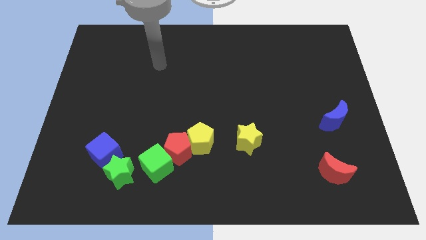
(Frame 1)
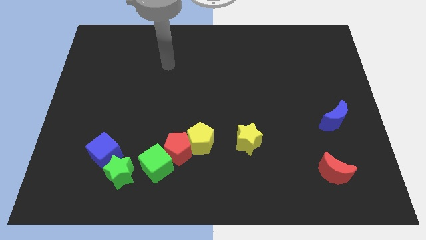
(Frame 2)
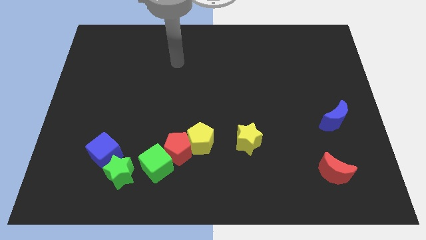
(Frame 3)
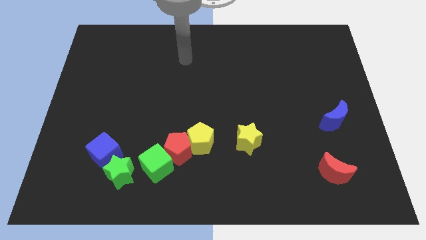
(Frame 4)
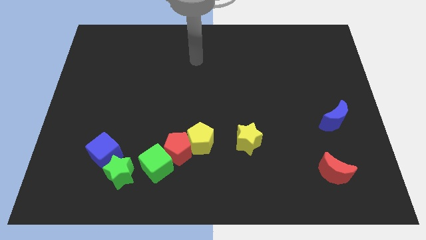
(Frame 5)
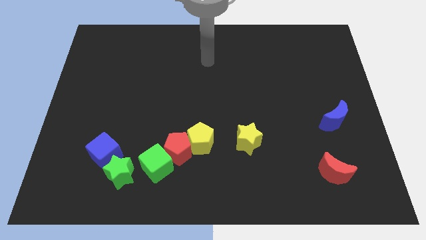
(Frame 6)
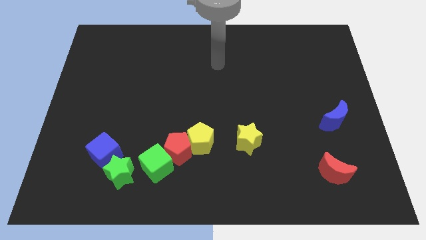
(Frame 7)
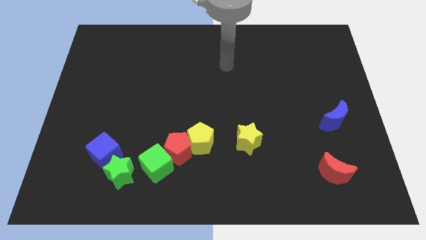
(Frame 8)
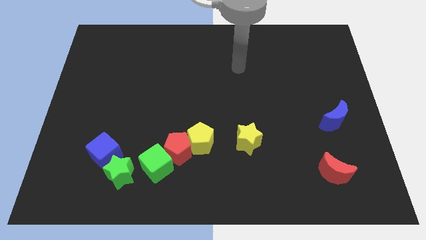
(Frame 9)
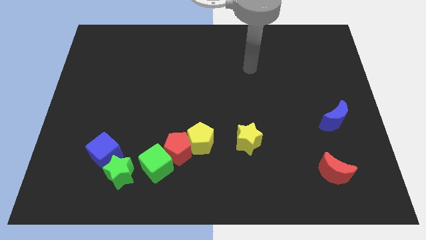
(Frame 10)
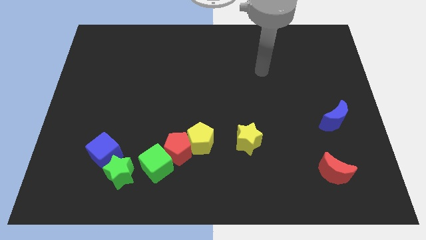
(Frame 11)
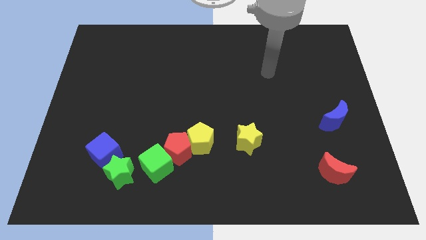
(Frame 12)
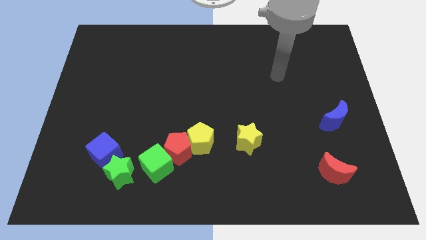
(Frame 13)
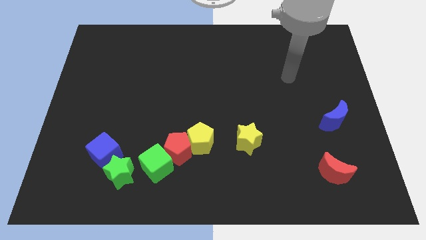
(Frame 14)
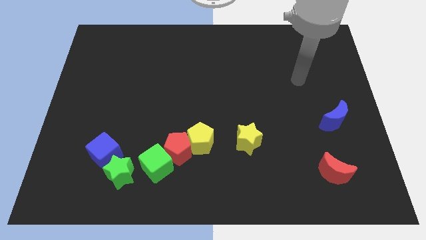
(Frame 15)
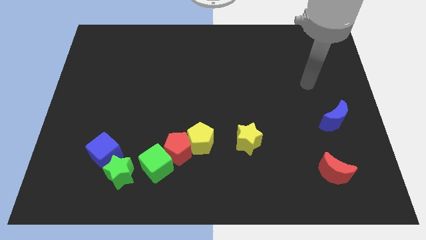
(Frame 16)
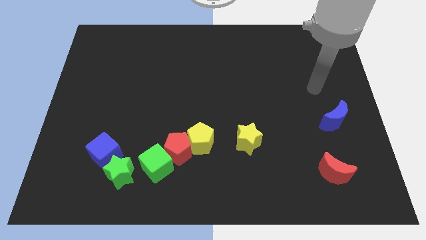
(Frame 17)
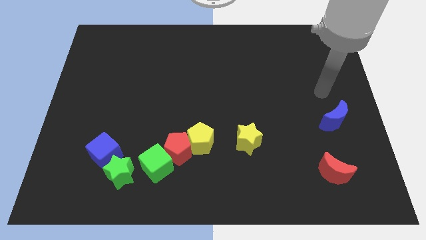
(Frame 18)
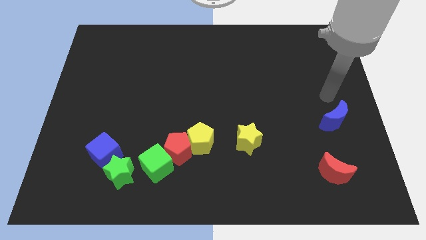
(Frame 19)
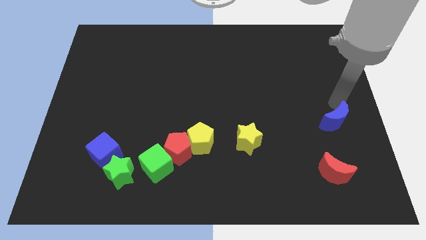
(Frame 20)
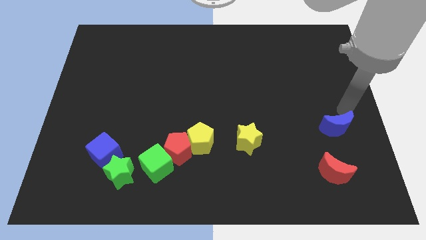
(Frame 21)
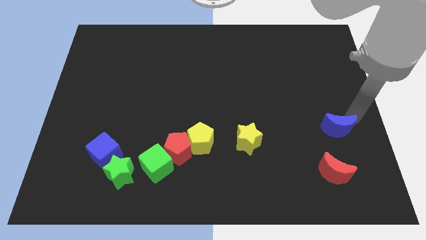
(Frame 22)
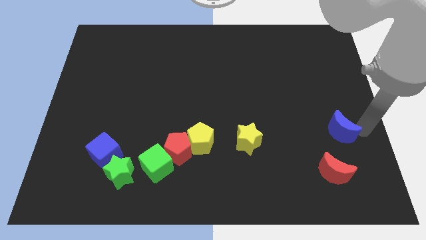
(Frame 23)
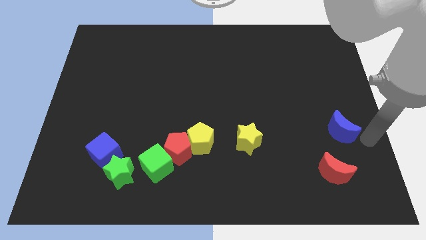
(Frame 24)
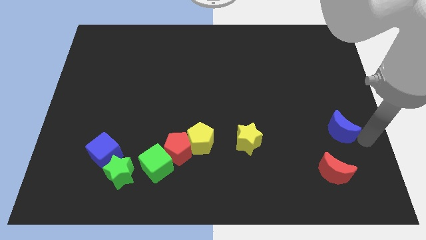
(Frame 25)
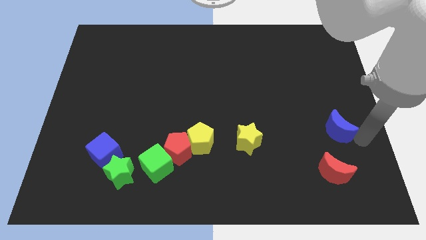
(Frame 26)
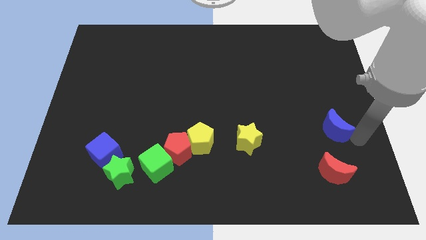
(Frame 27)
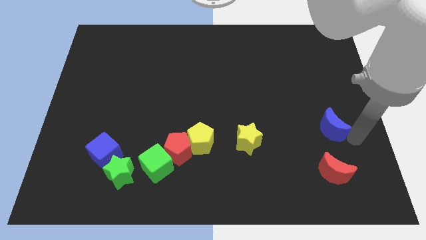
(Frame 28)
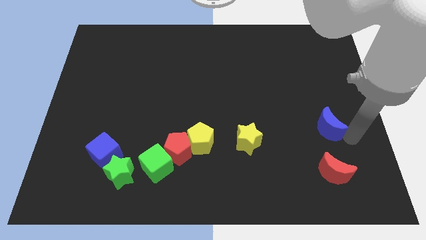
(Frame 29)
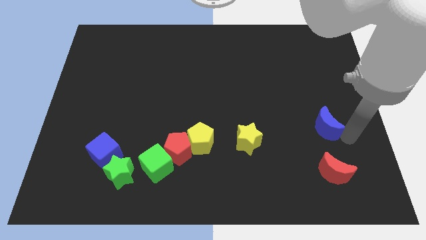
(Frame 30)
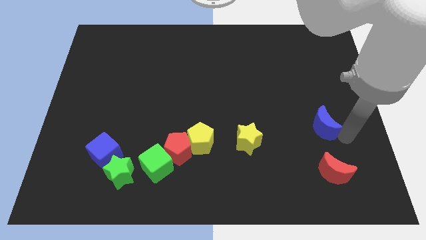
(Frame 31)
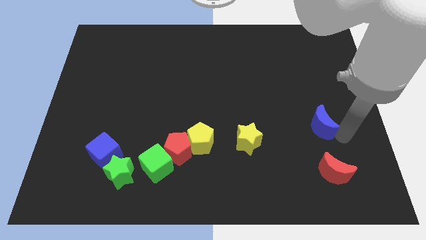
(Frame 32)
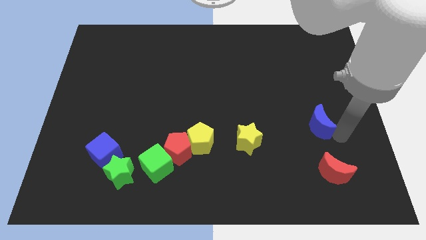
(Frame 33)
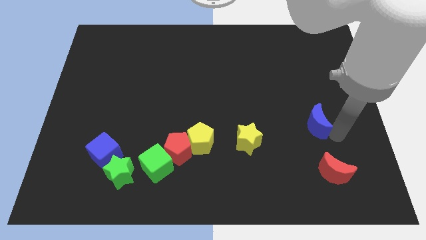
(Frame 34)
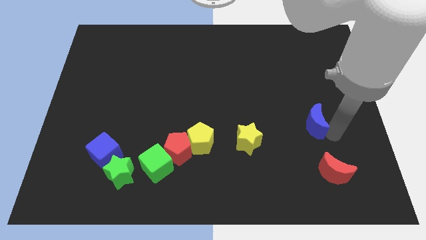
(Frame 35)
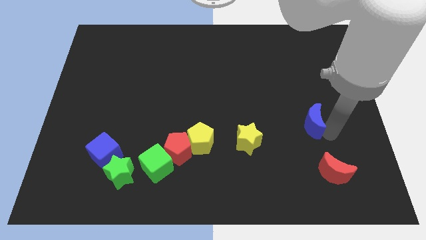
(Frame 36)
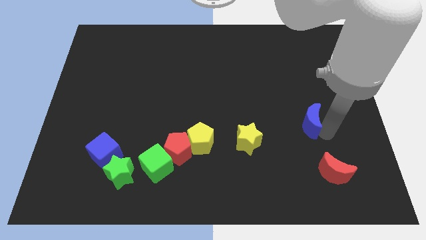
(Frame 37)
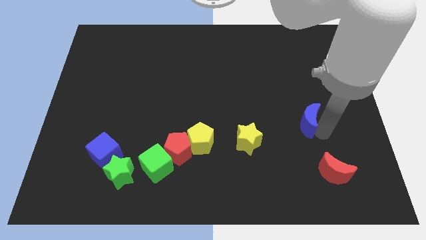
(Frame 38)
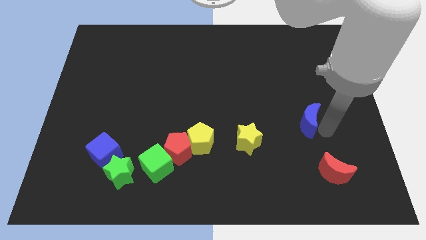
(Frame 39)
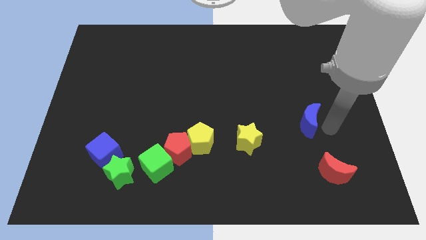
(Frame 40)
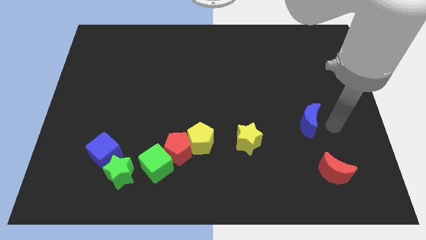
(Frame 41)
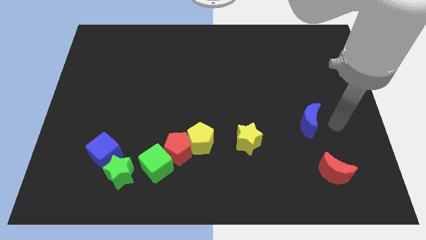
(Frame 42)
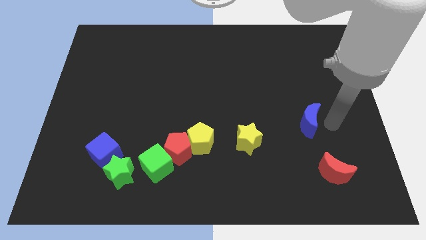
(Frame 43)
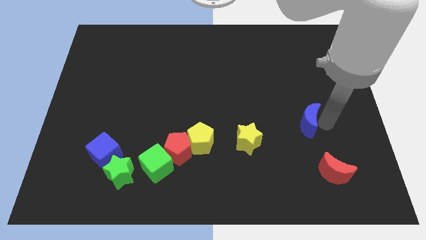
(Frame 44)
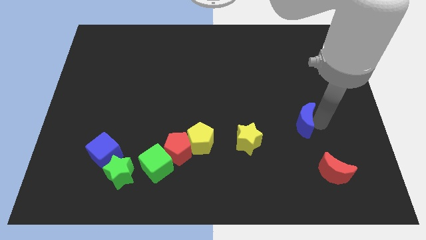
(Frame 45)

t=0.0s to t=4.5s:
move the blue moon a bit to the left

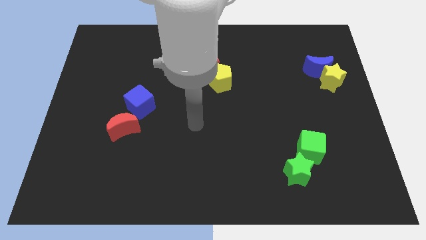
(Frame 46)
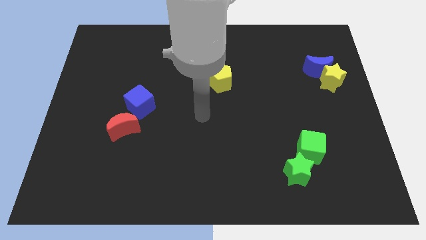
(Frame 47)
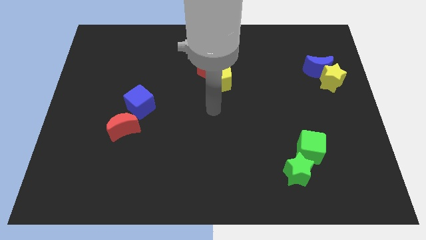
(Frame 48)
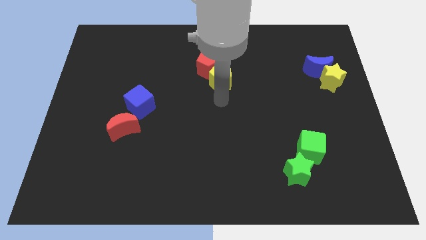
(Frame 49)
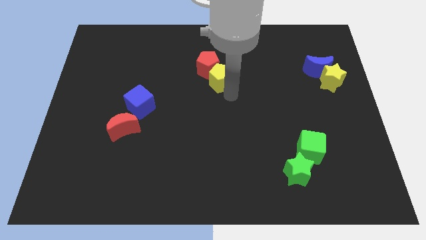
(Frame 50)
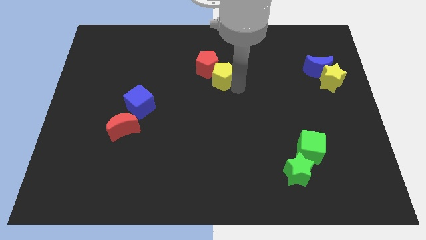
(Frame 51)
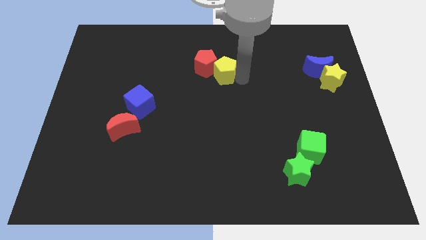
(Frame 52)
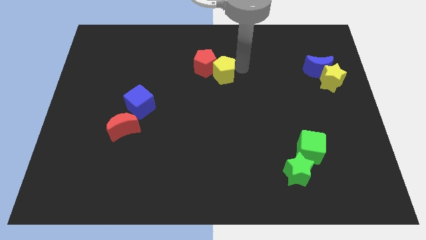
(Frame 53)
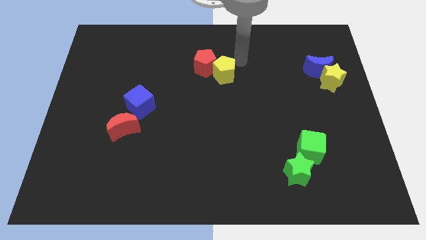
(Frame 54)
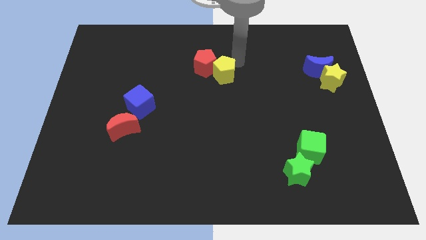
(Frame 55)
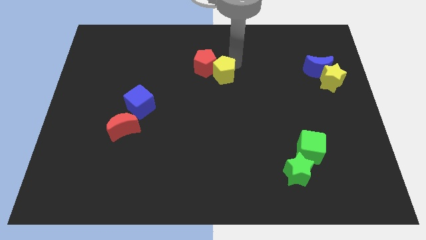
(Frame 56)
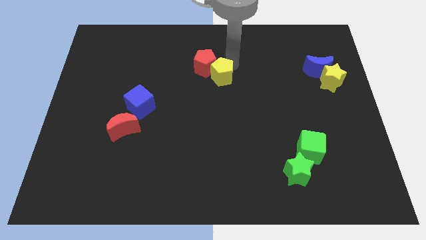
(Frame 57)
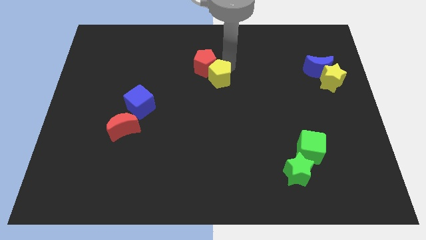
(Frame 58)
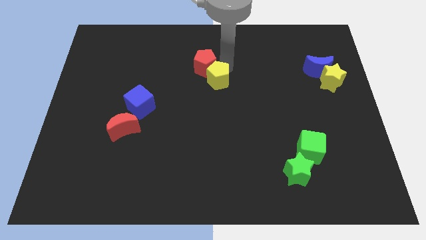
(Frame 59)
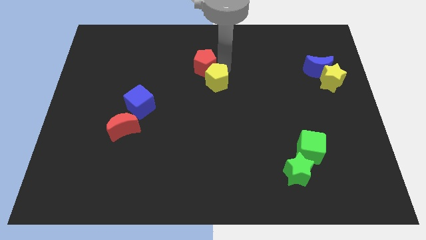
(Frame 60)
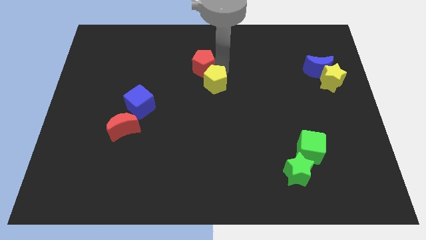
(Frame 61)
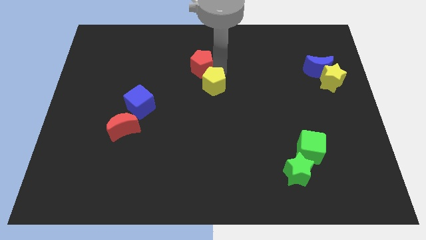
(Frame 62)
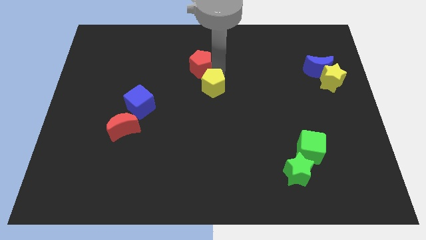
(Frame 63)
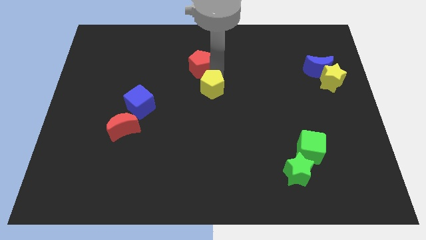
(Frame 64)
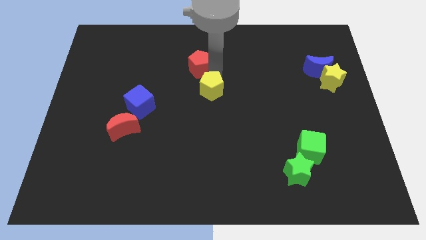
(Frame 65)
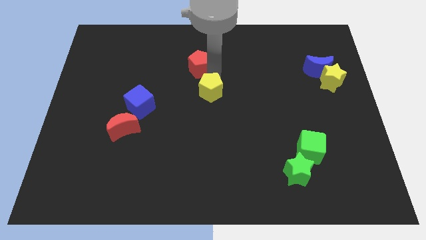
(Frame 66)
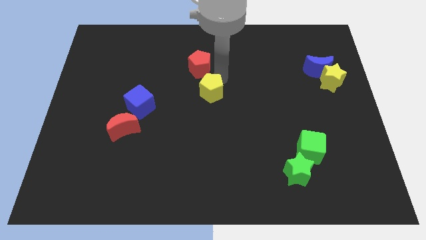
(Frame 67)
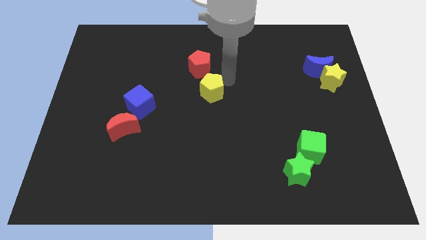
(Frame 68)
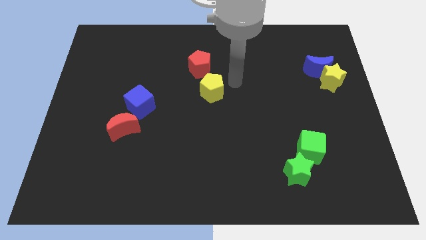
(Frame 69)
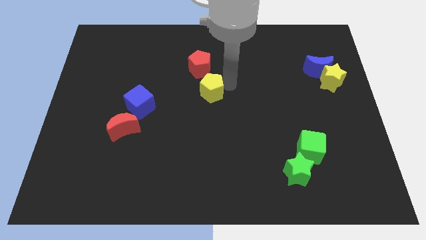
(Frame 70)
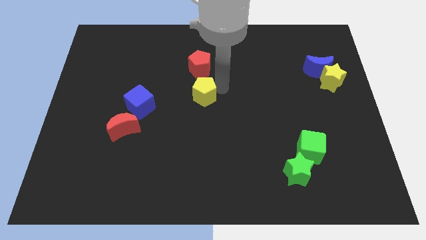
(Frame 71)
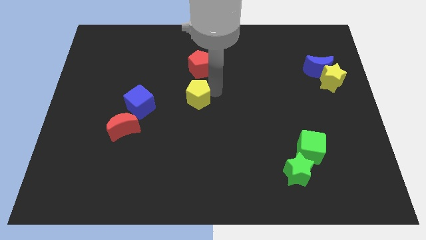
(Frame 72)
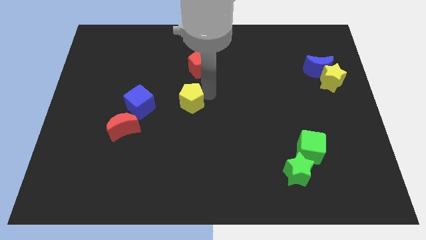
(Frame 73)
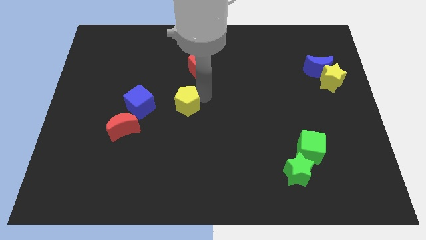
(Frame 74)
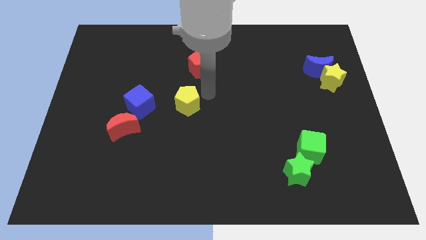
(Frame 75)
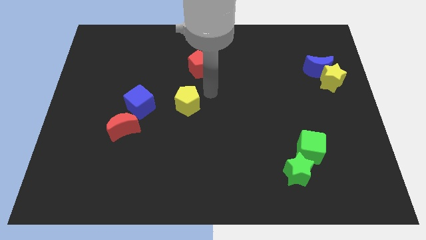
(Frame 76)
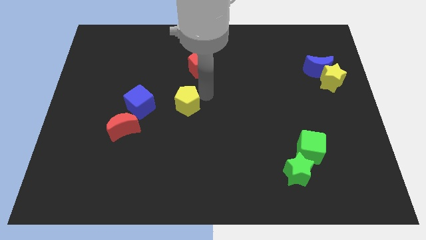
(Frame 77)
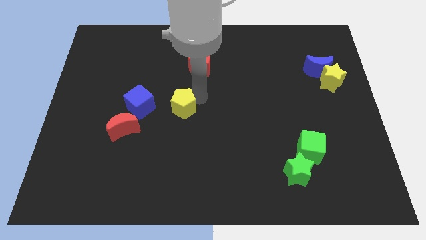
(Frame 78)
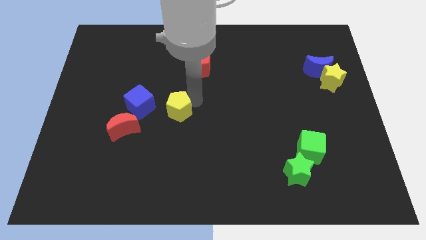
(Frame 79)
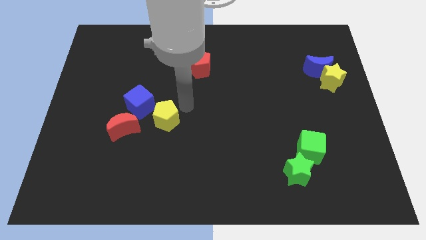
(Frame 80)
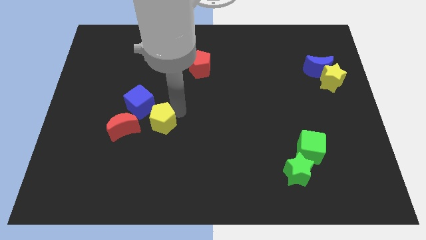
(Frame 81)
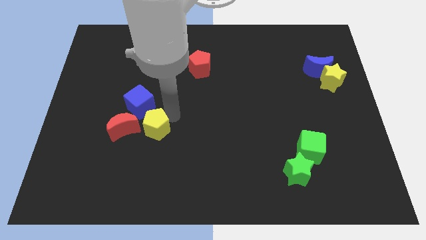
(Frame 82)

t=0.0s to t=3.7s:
slide the yellow pentagon downwards and then left
